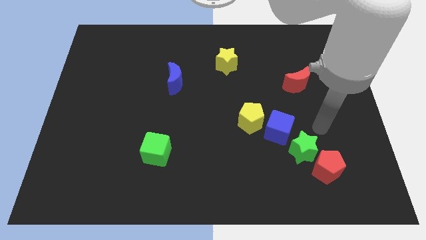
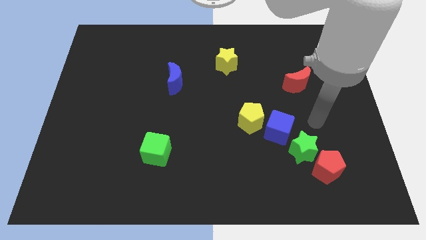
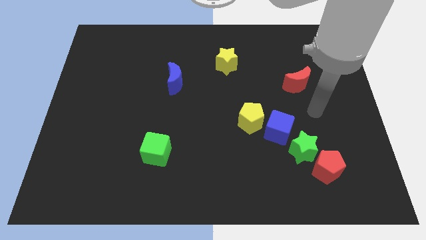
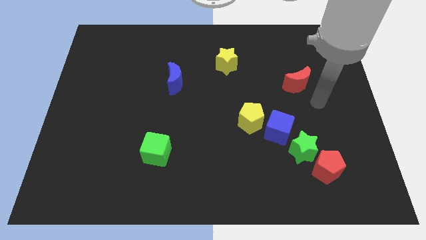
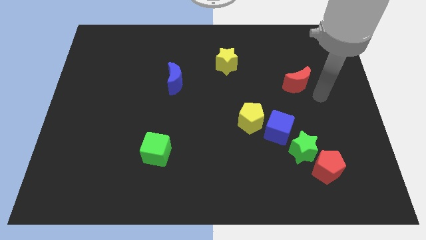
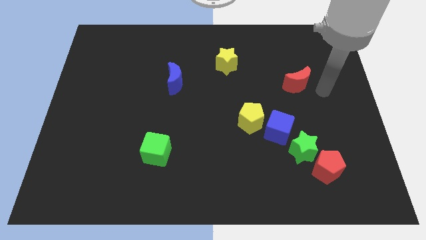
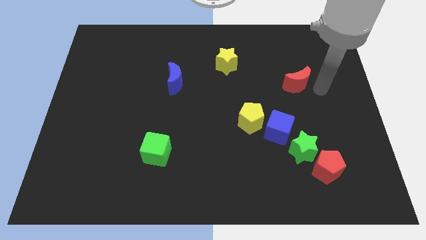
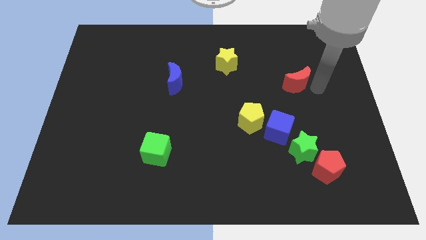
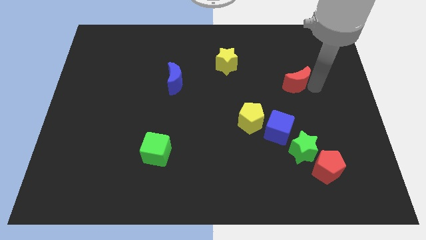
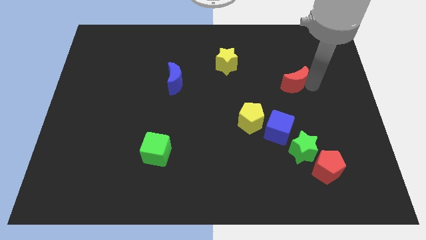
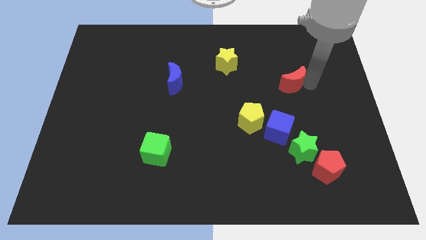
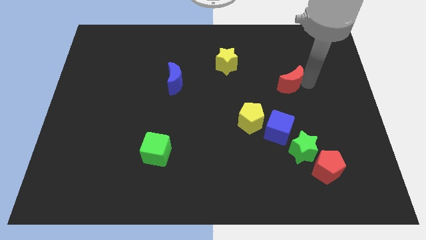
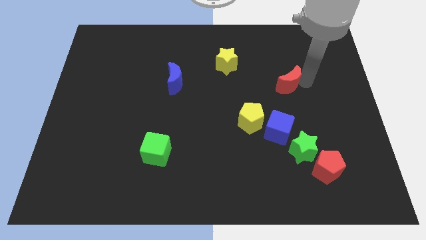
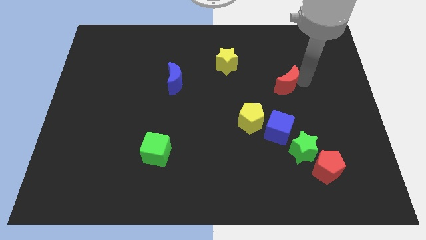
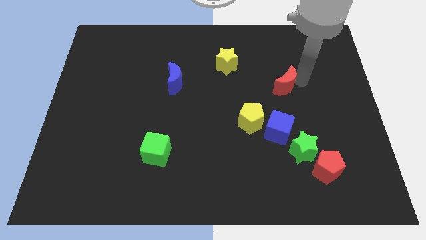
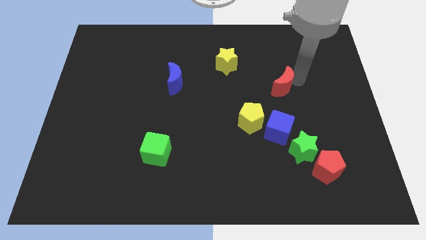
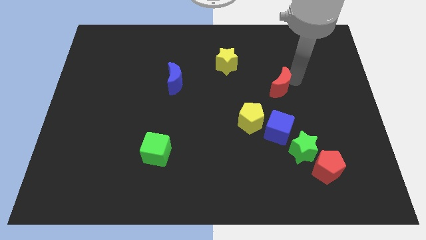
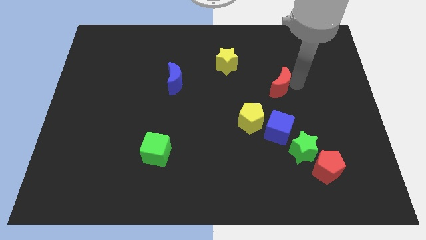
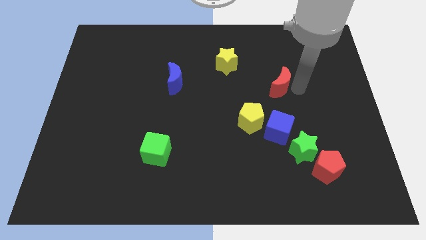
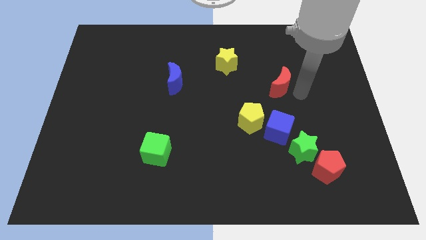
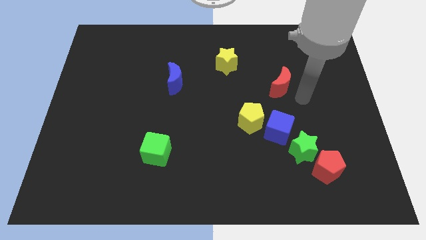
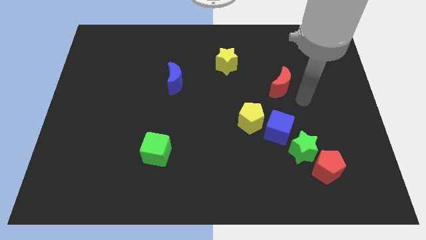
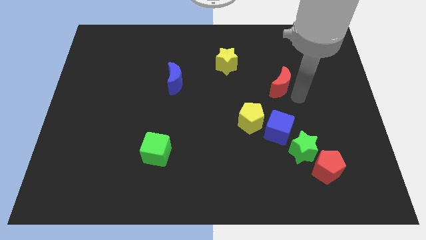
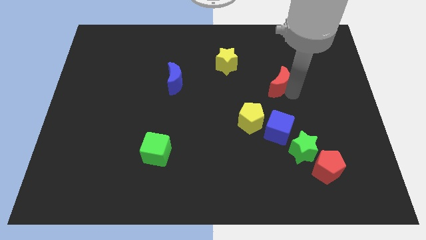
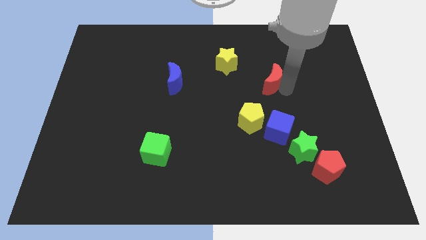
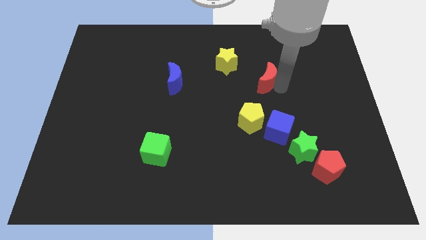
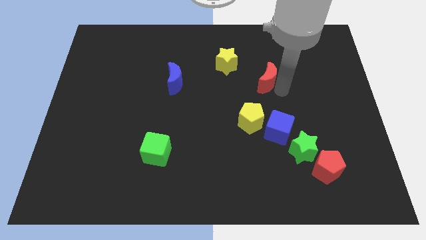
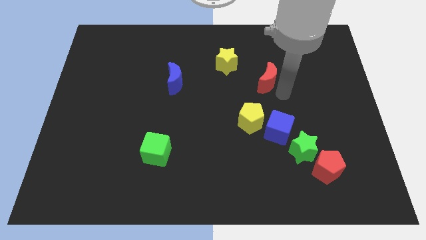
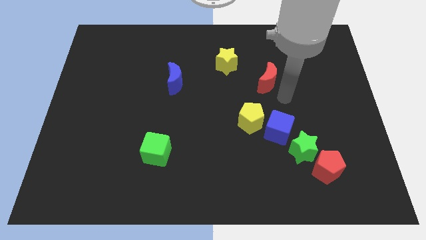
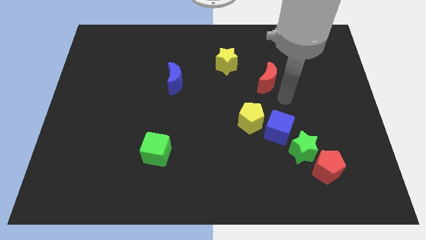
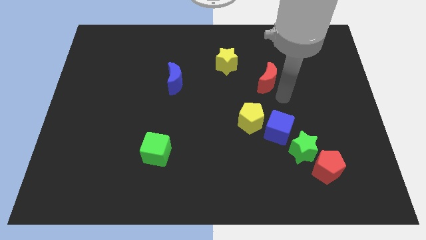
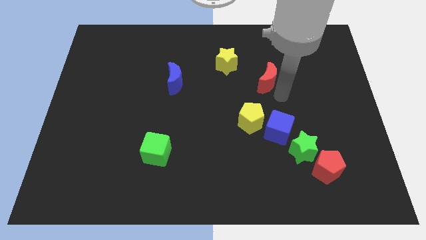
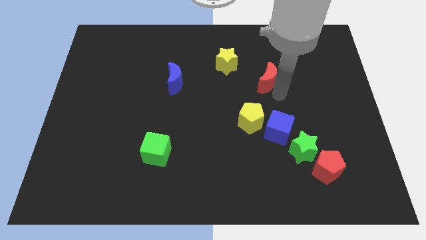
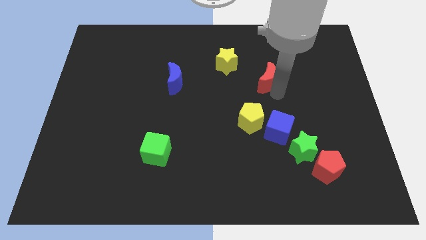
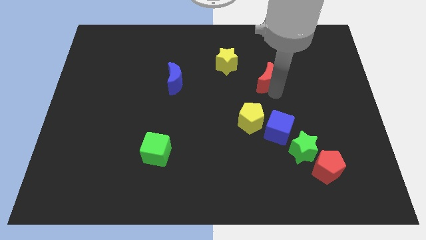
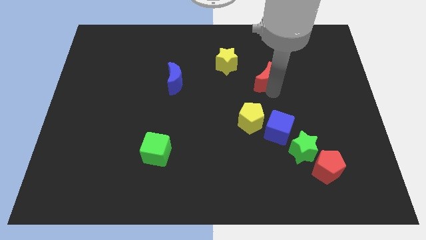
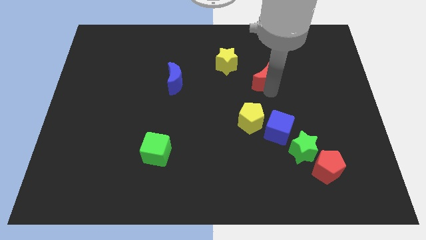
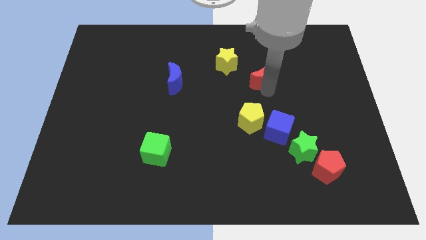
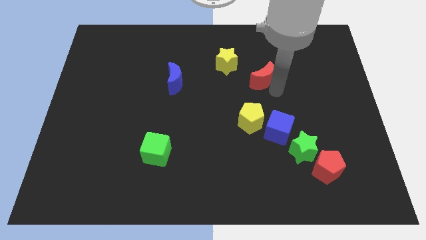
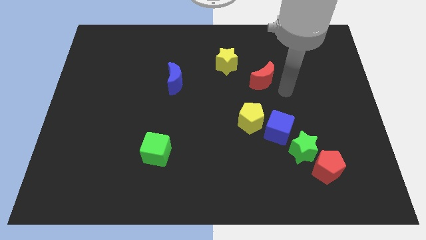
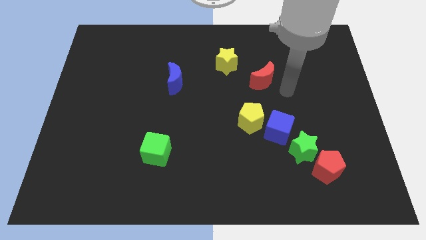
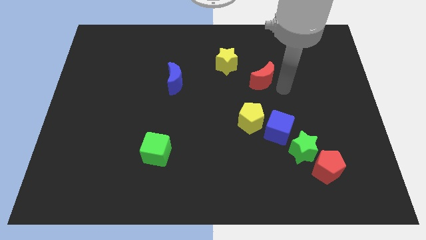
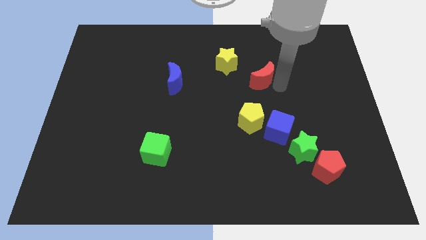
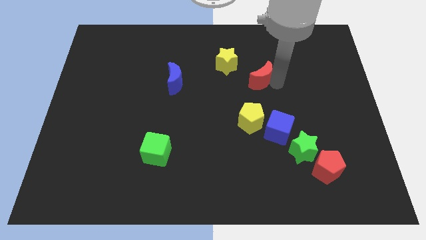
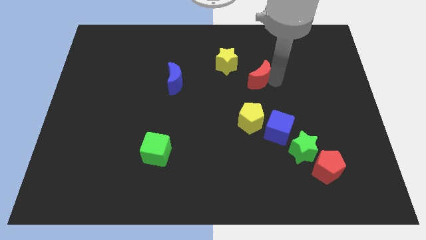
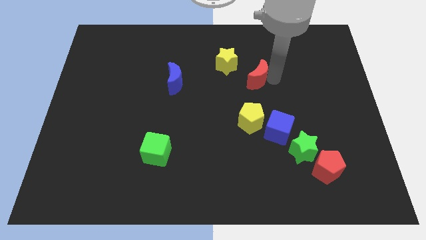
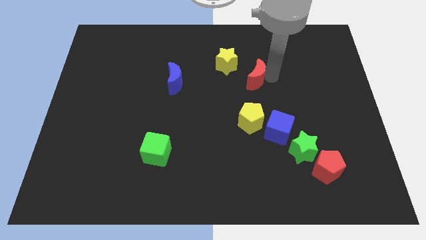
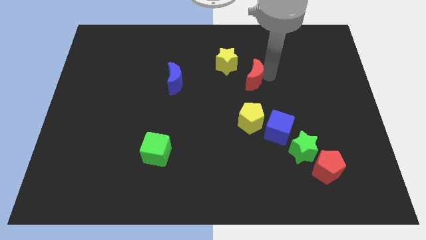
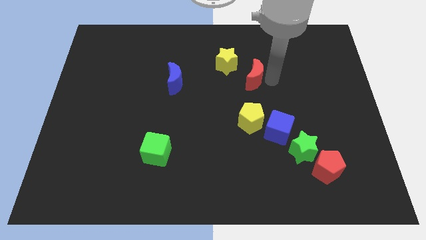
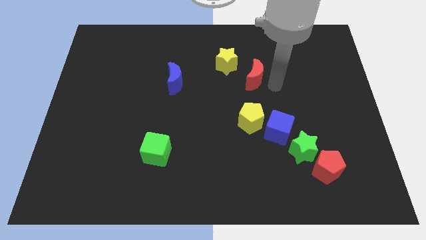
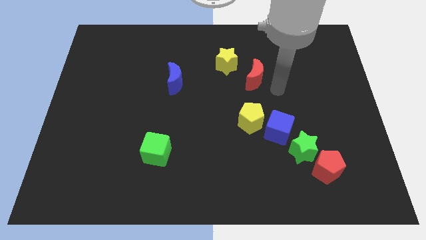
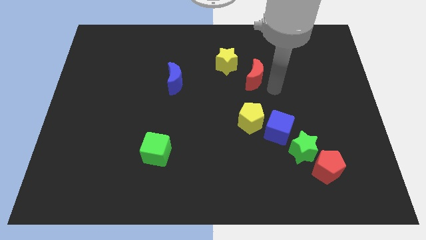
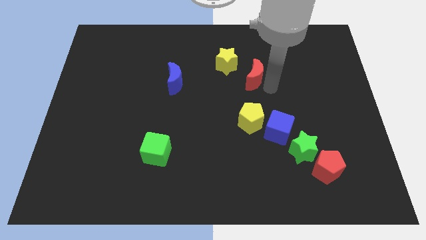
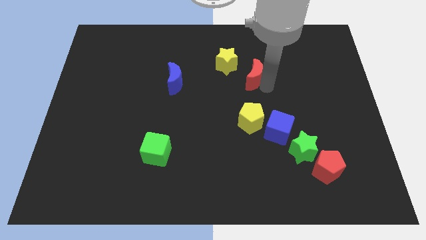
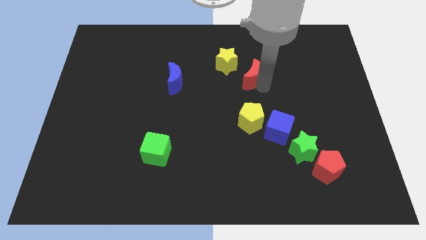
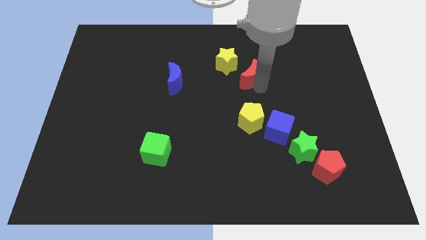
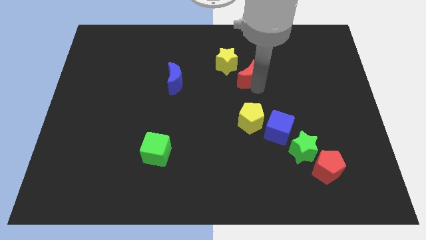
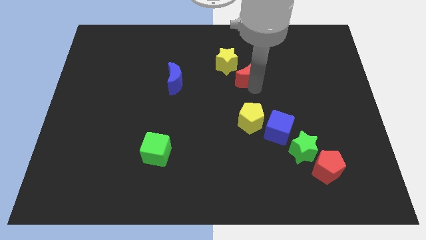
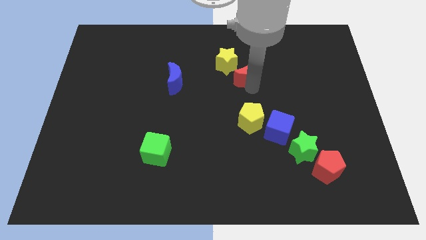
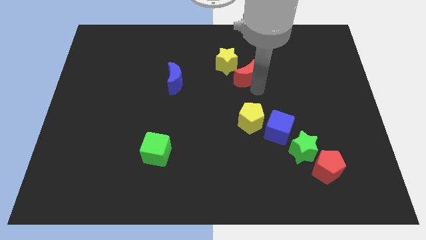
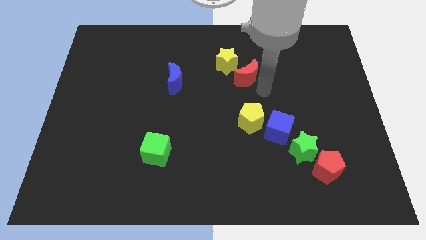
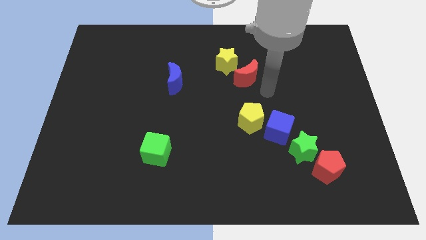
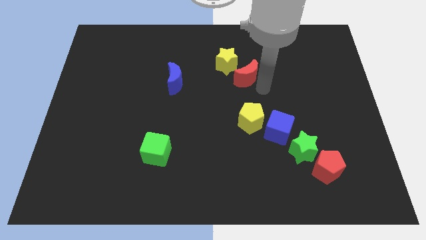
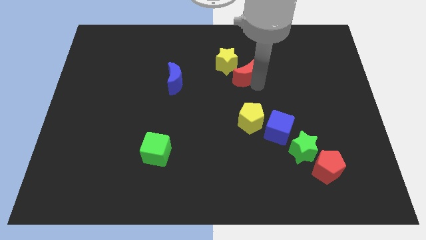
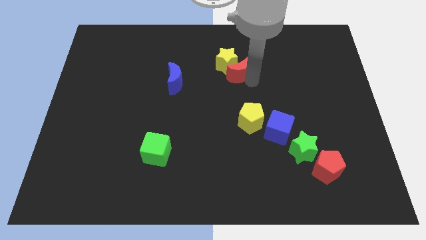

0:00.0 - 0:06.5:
slide the red moon close to the yellow star

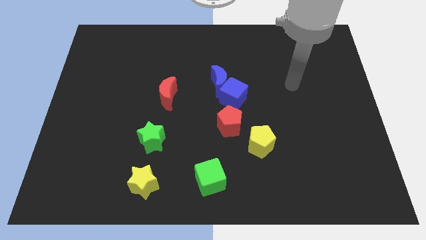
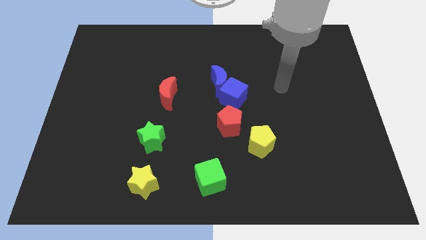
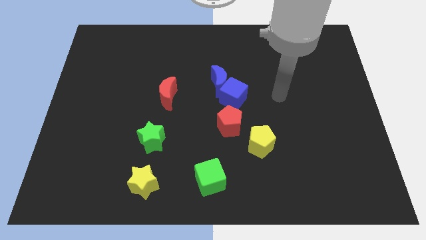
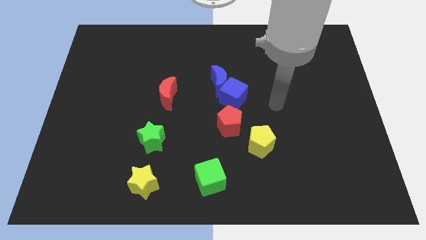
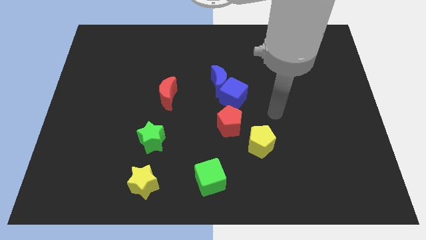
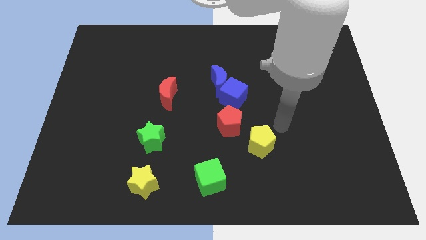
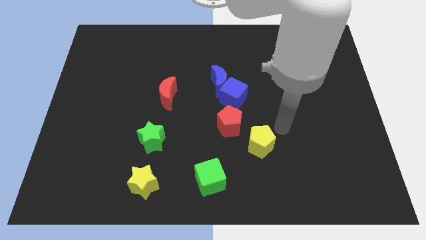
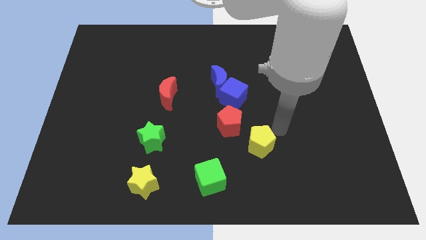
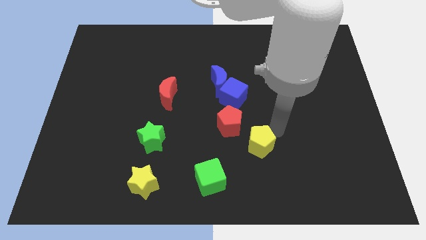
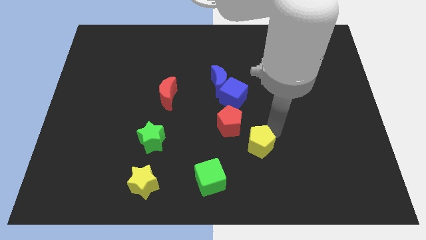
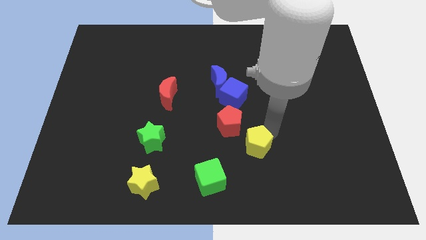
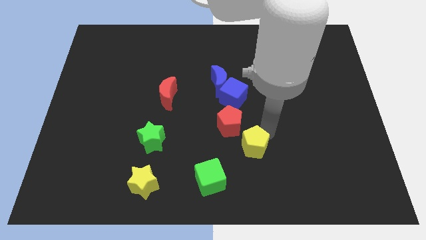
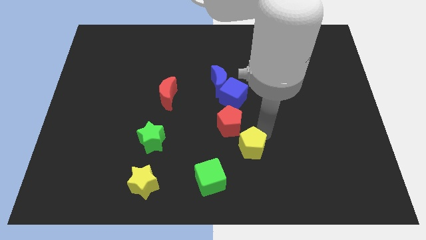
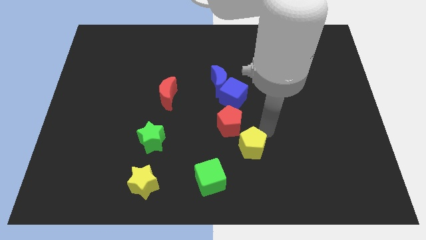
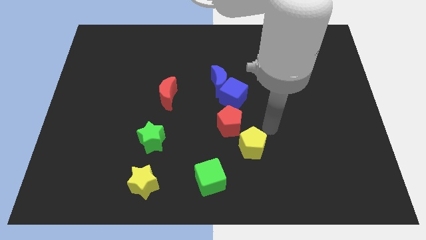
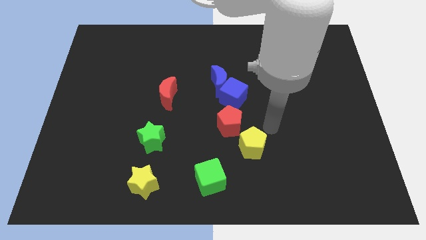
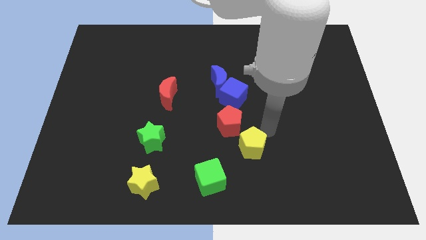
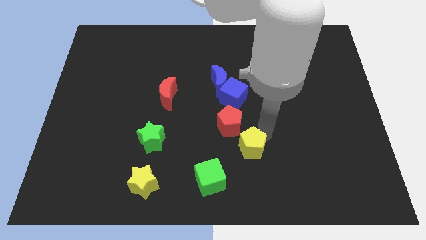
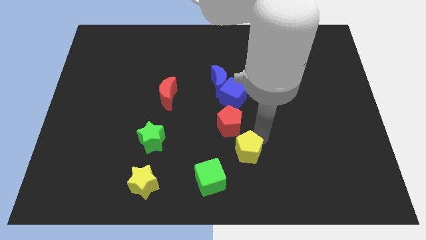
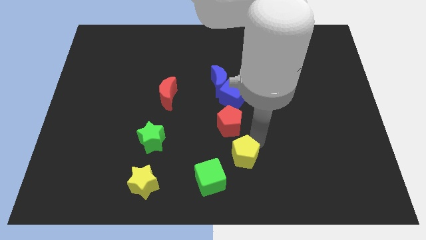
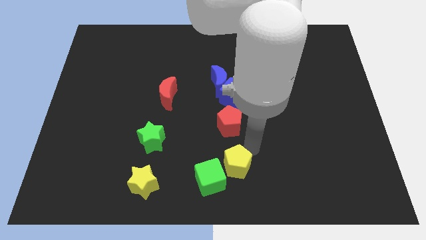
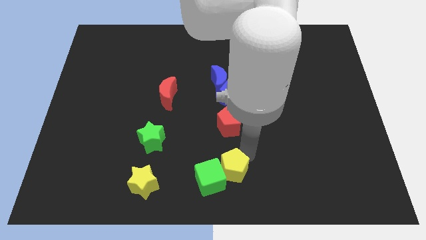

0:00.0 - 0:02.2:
push the yellow pentagon towards the green cube
